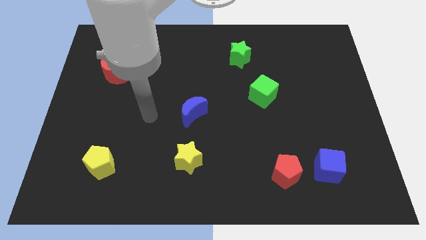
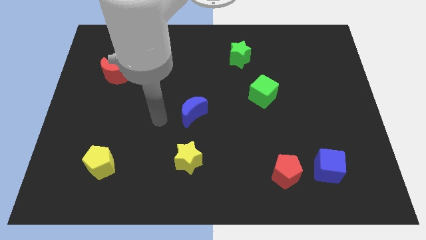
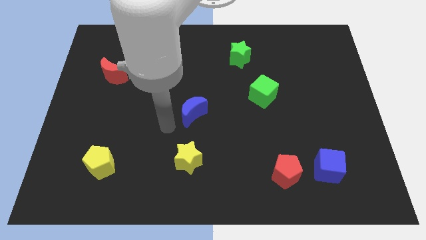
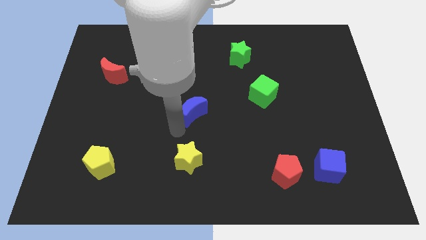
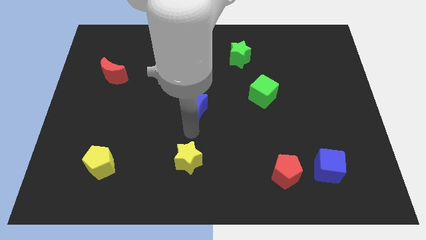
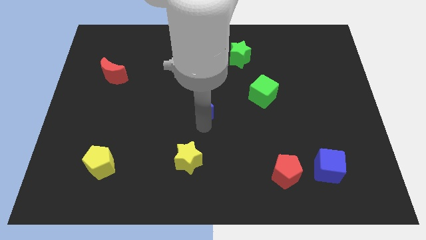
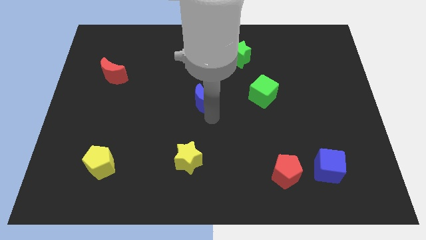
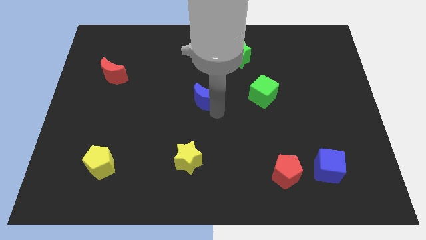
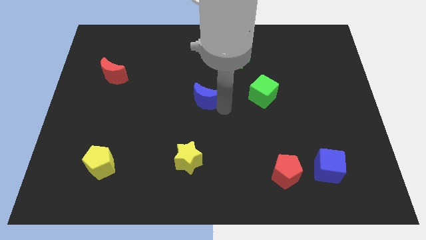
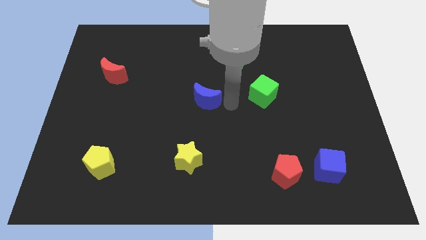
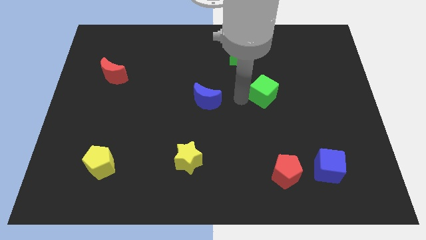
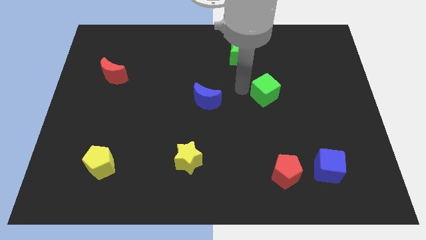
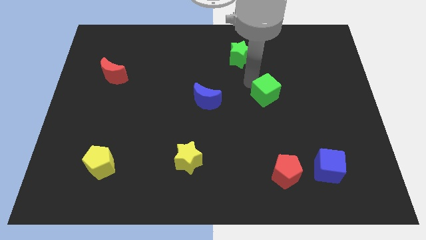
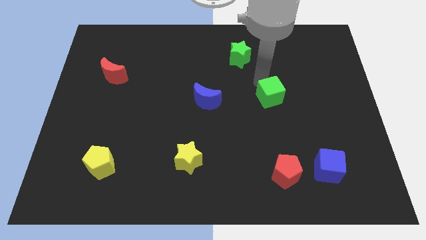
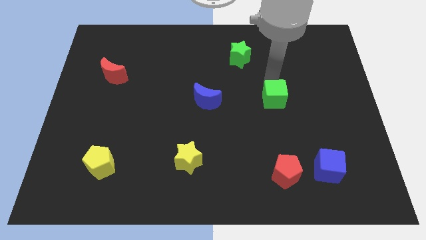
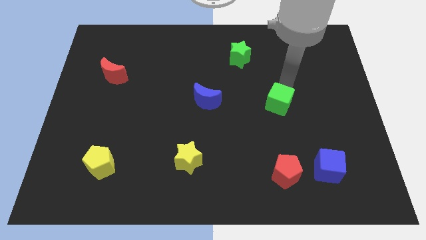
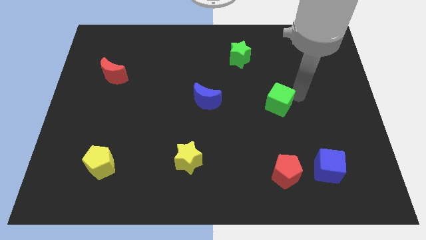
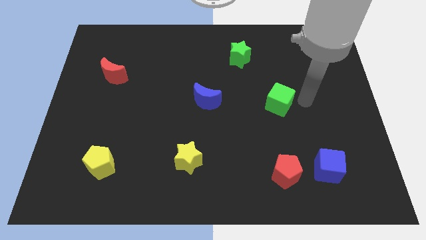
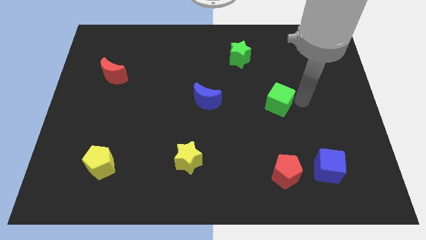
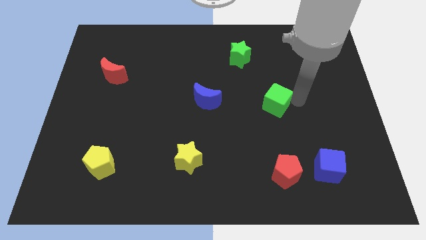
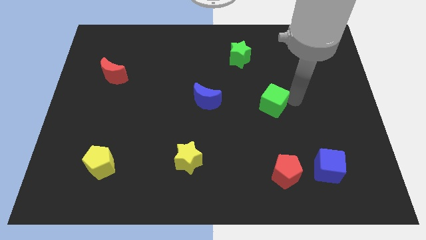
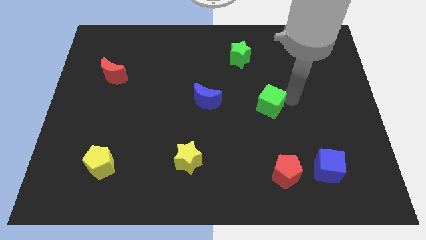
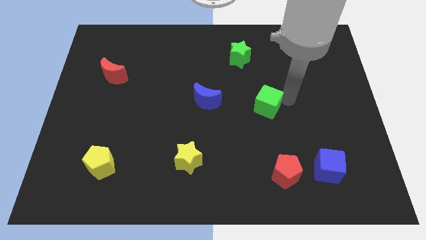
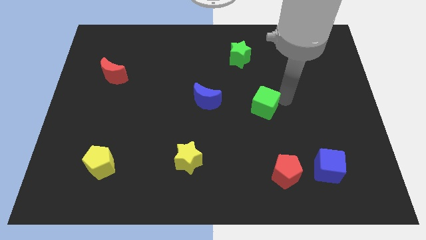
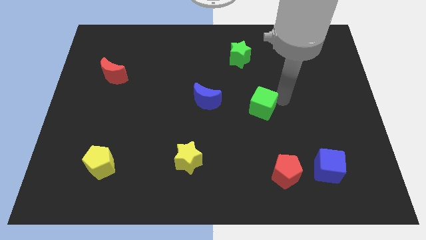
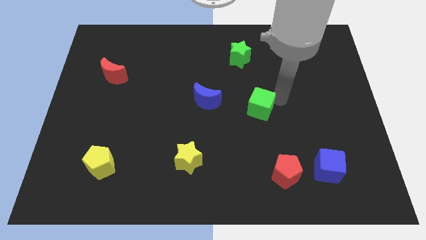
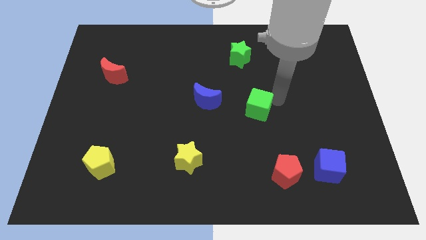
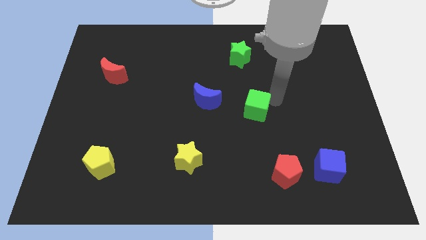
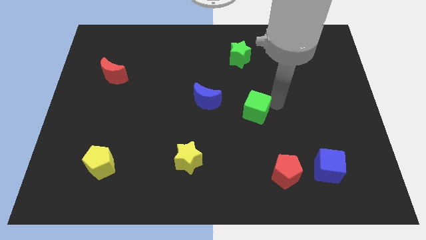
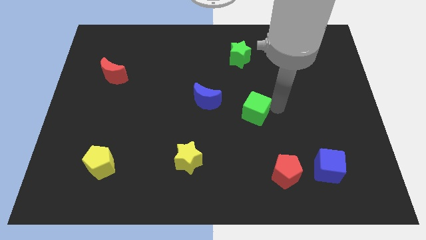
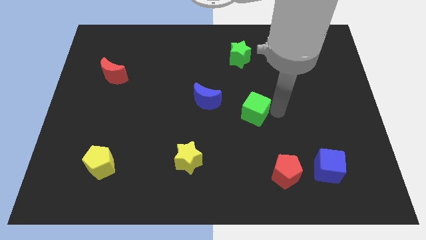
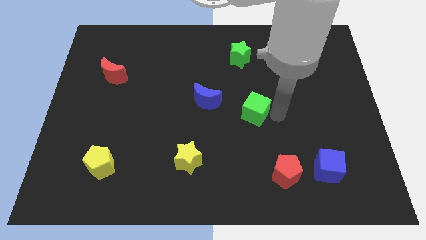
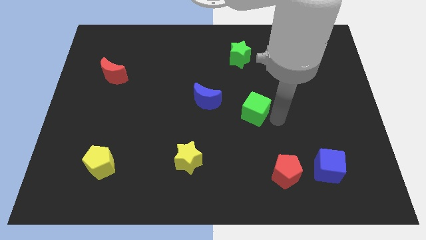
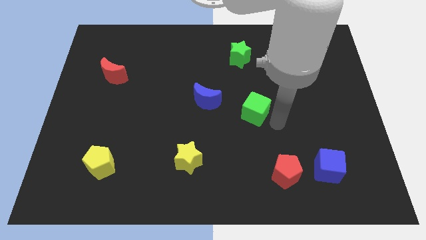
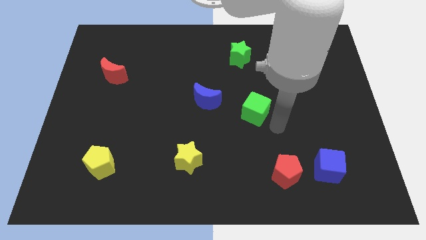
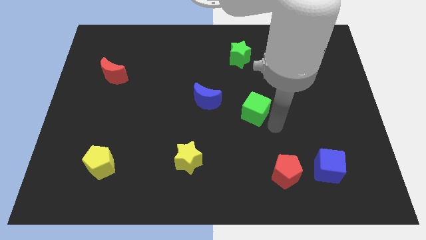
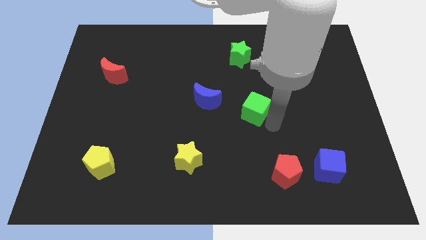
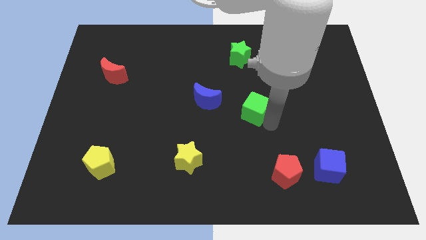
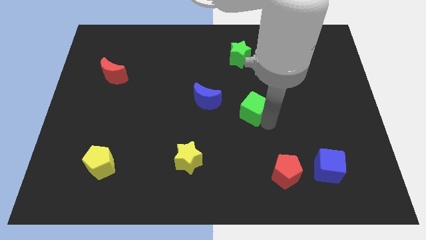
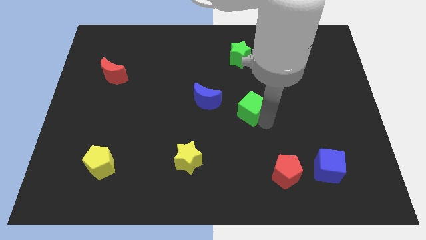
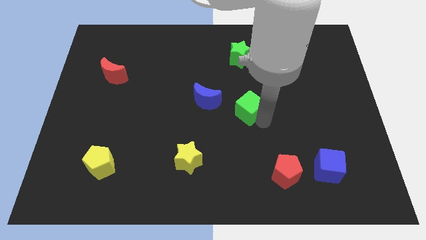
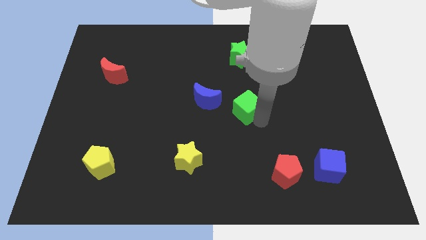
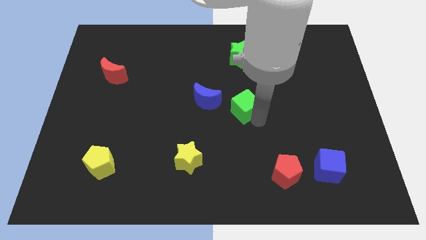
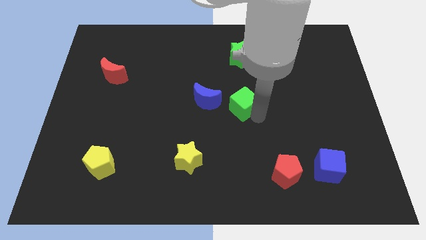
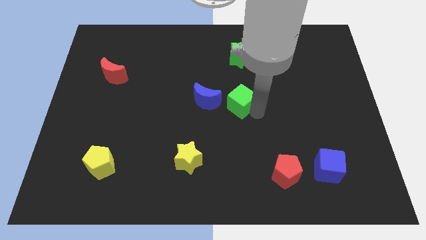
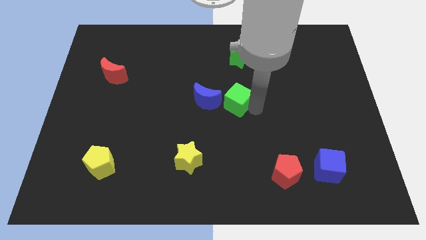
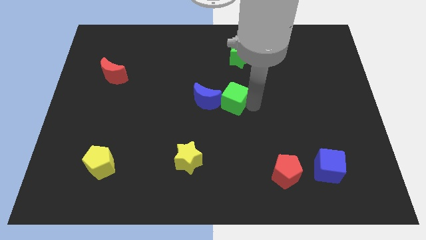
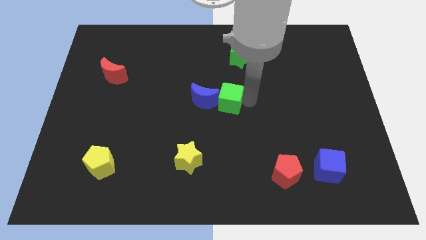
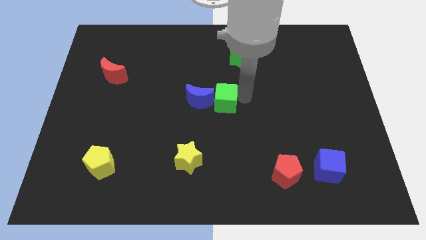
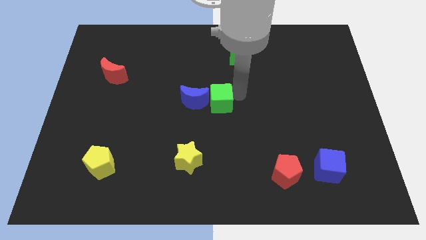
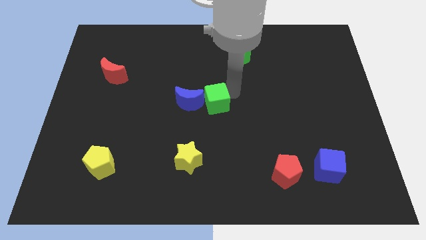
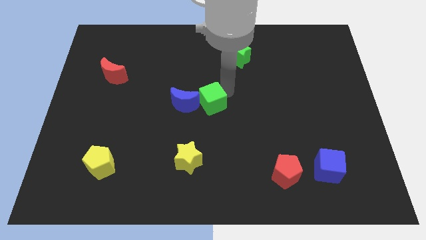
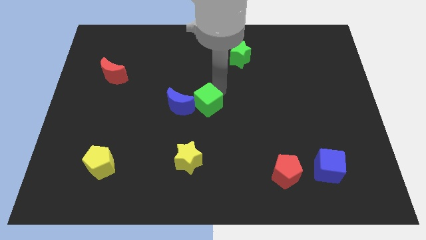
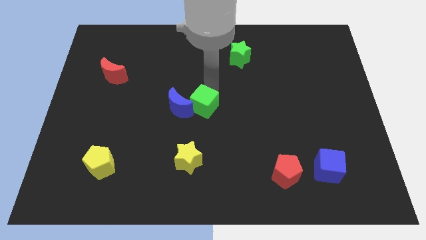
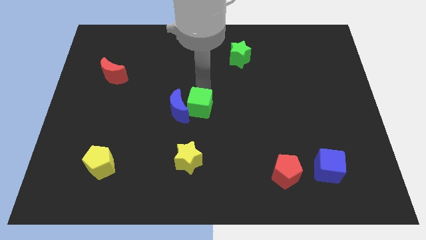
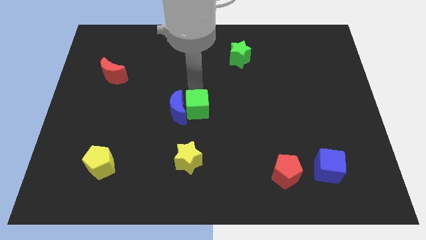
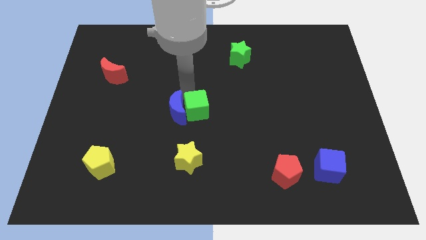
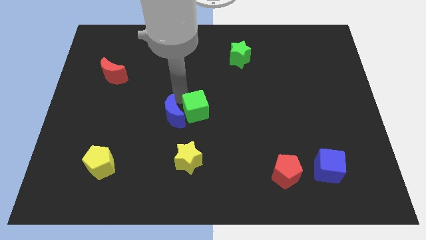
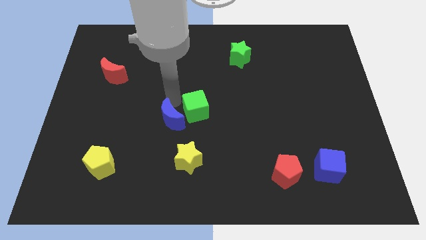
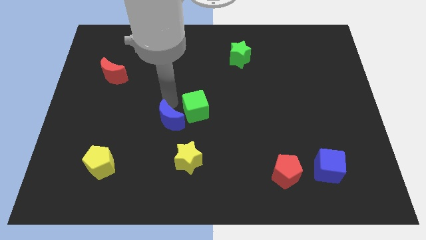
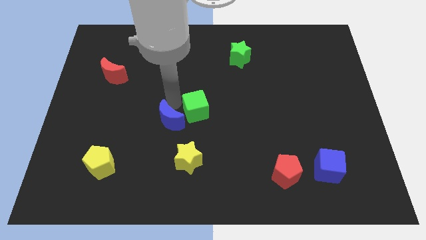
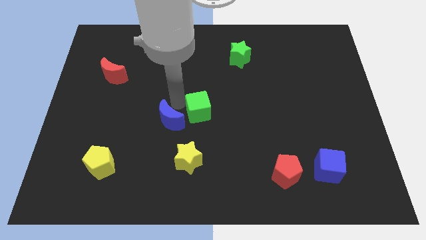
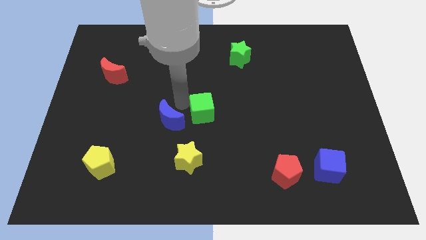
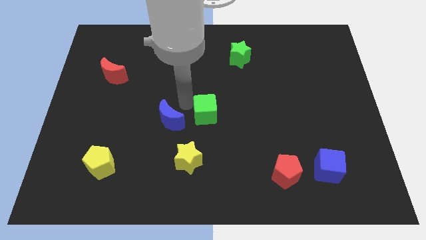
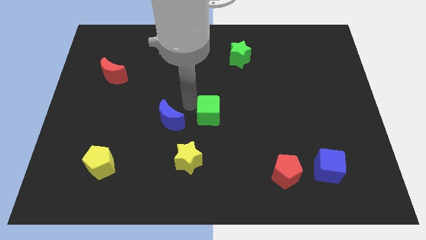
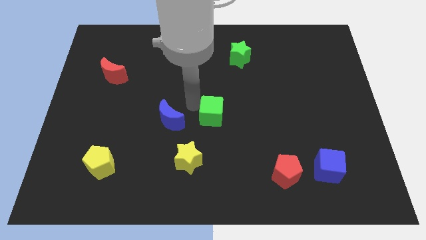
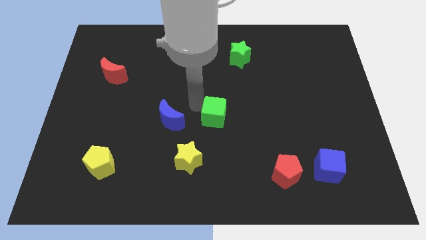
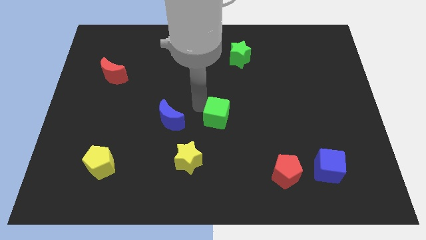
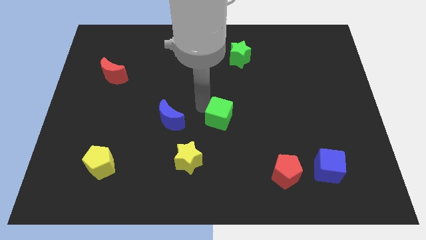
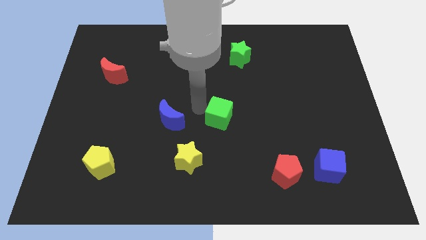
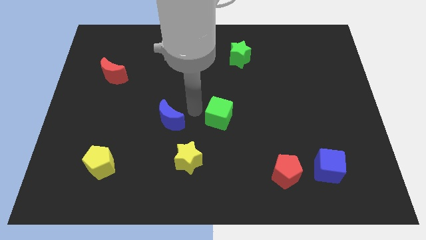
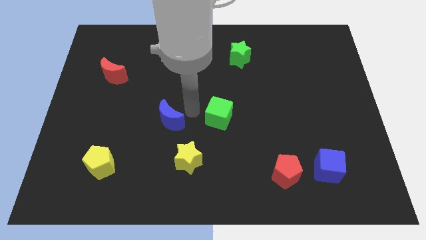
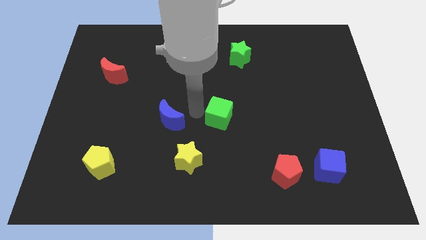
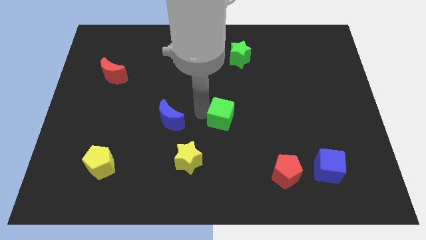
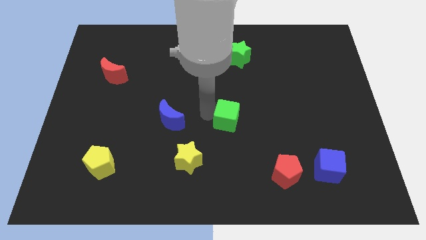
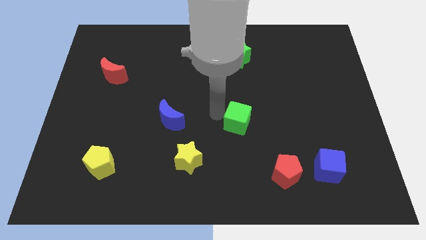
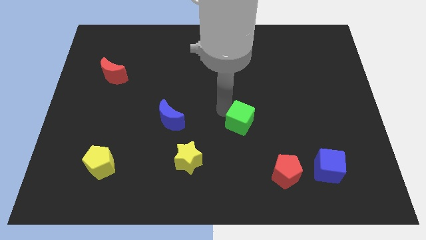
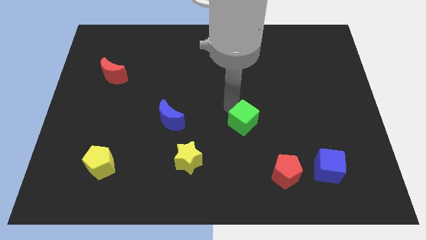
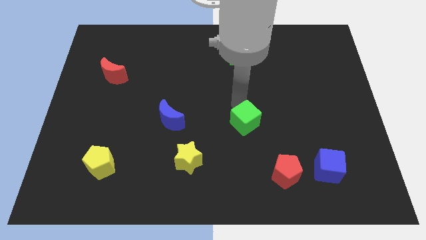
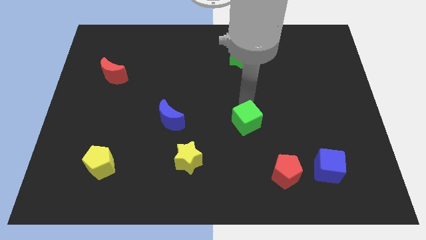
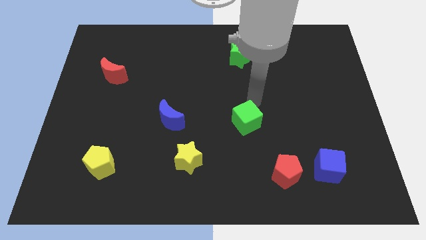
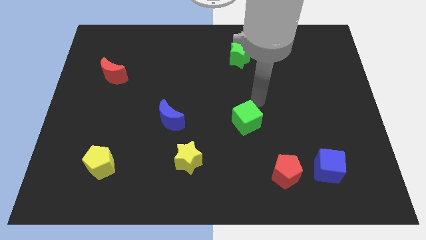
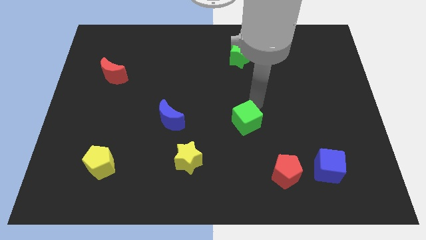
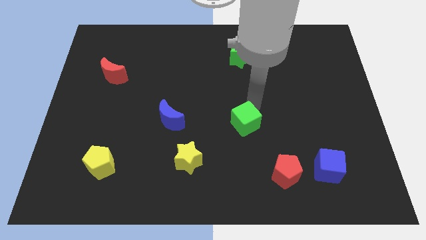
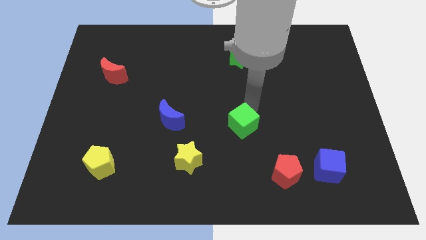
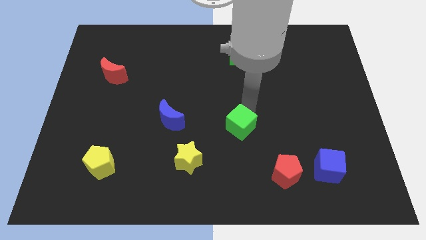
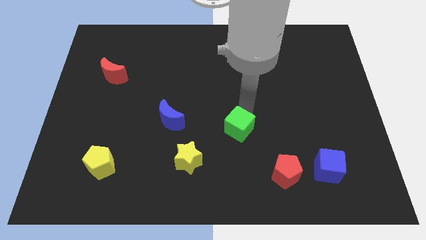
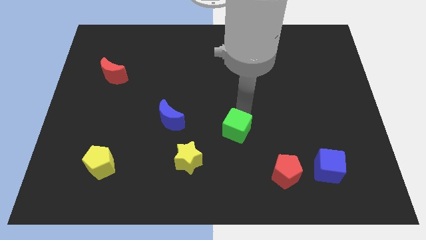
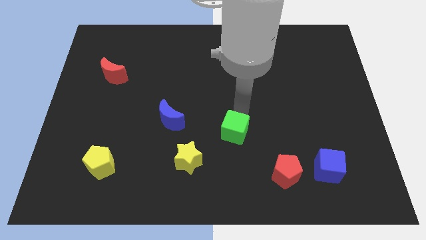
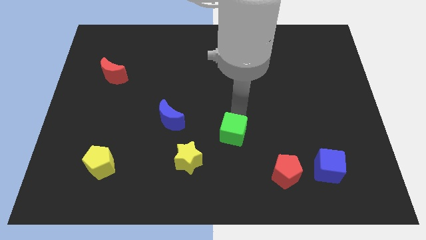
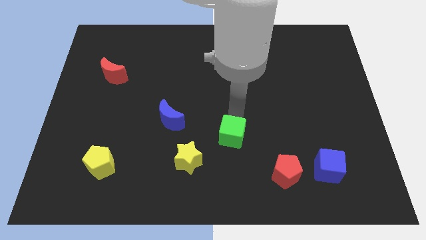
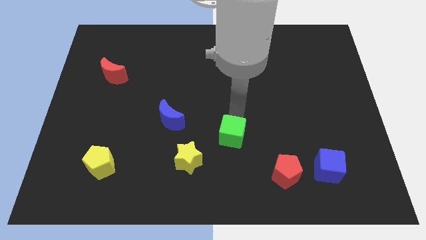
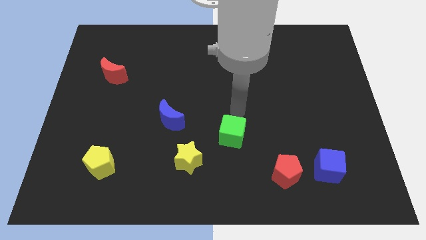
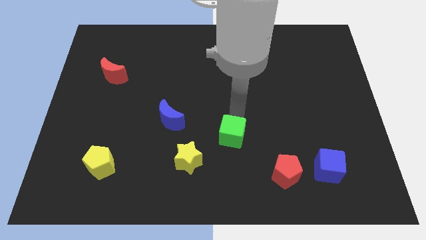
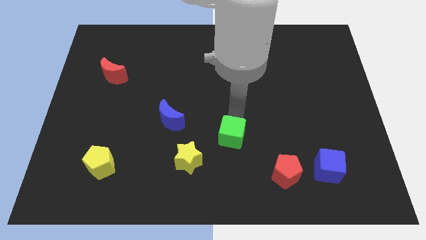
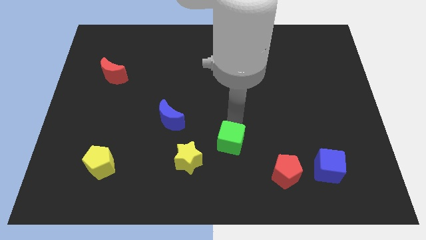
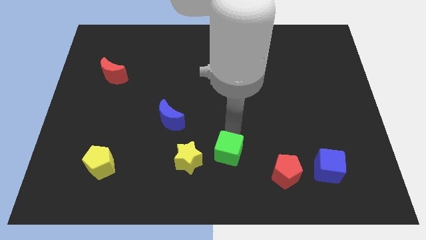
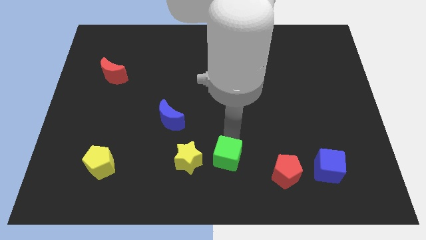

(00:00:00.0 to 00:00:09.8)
put the green cube to the bottom
